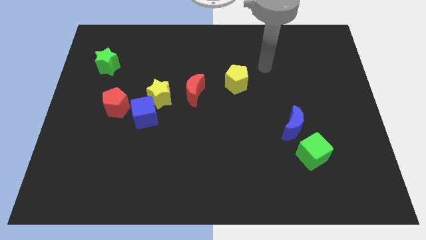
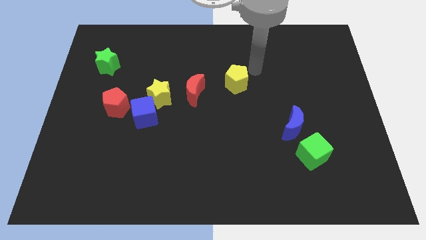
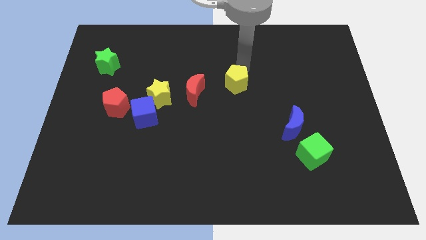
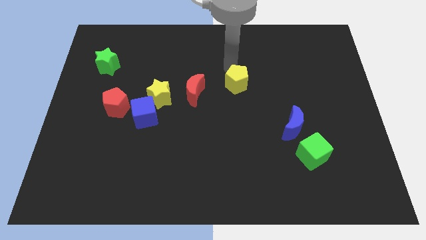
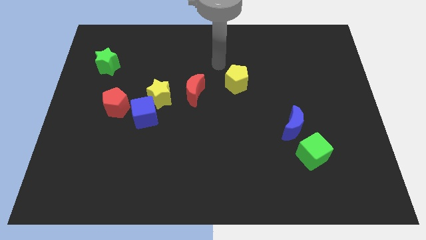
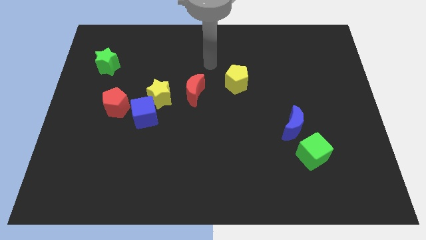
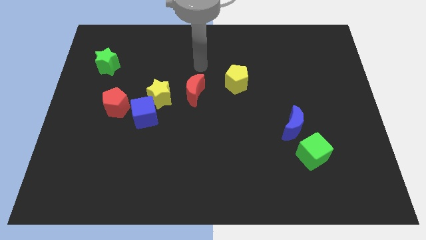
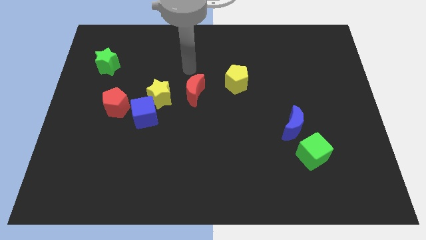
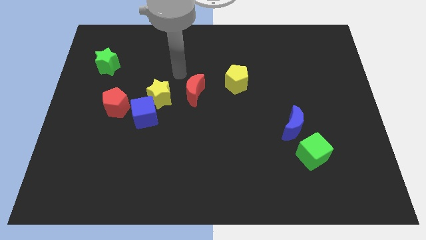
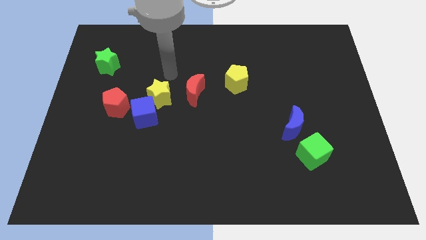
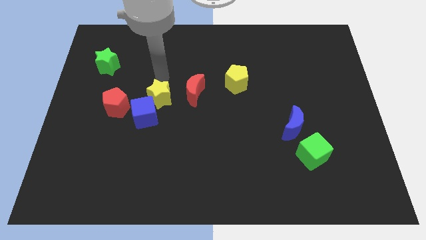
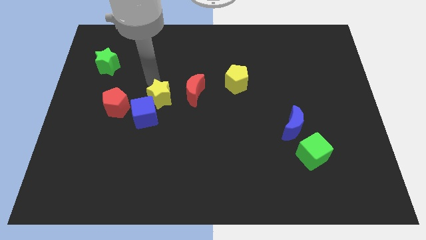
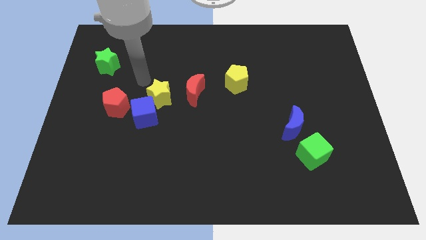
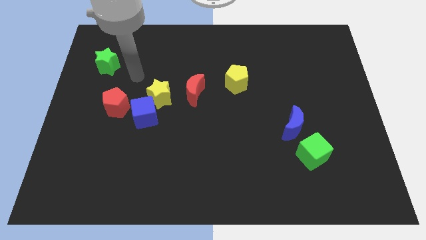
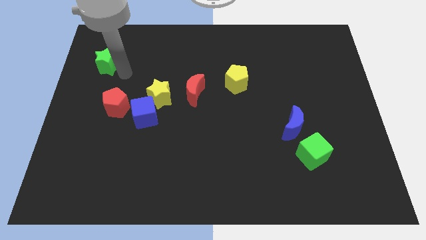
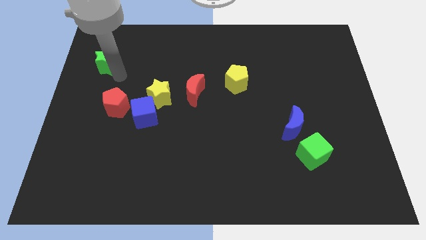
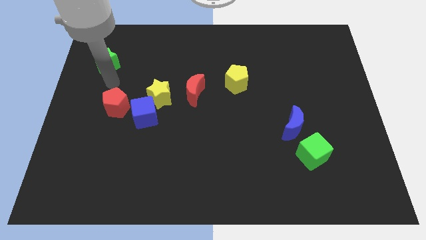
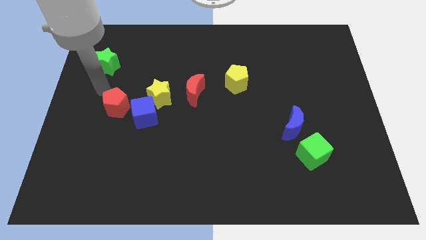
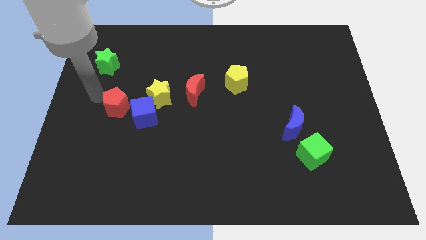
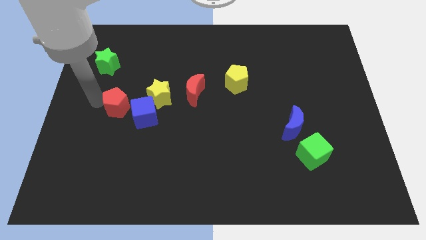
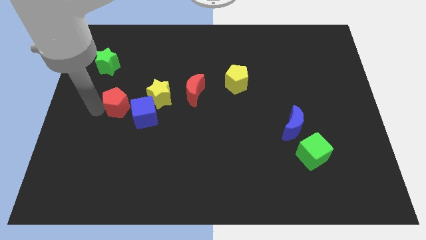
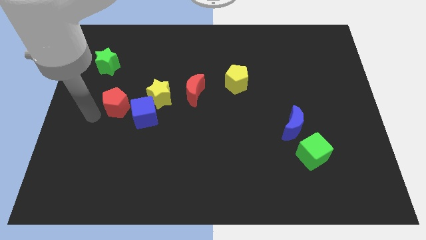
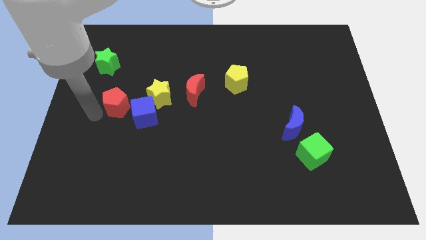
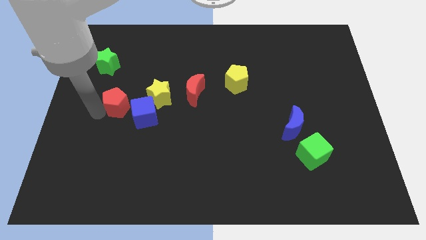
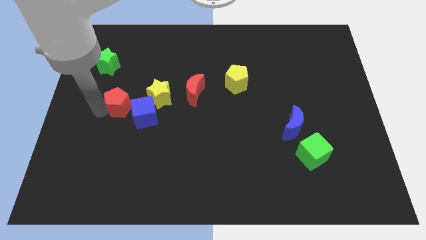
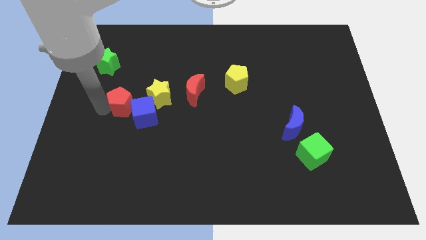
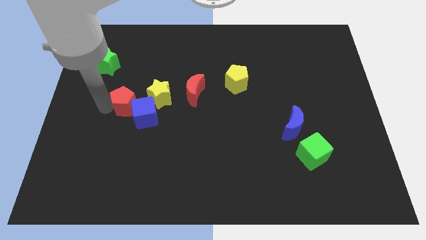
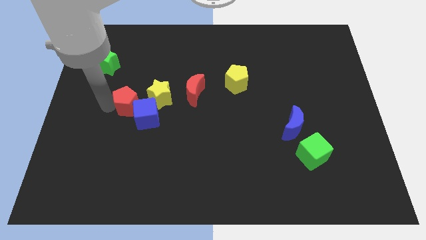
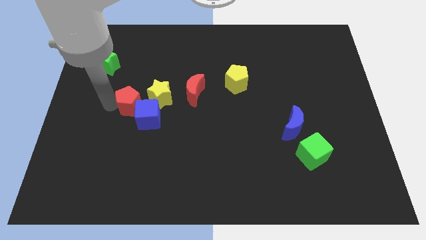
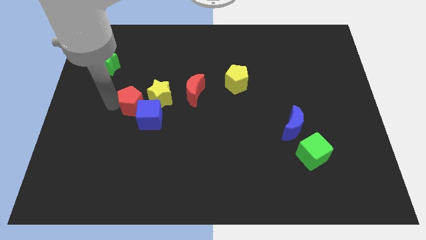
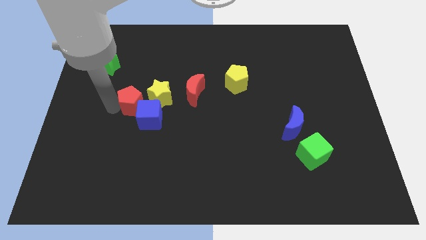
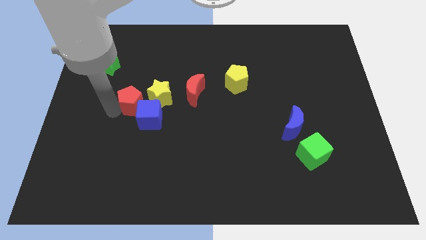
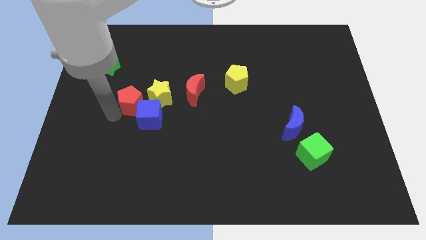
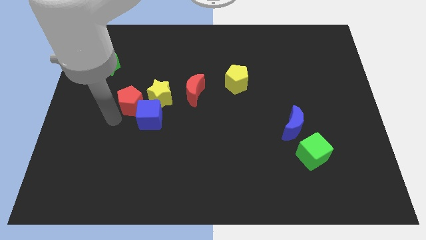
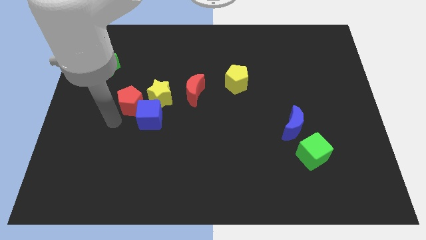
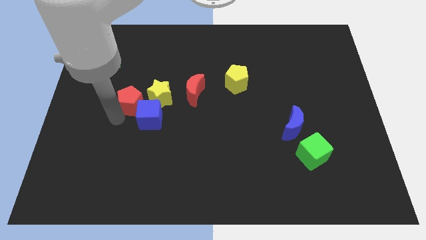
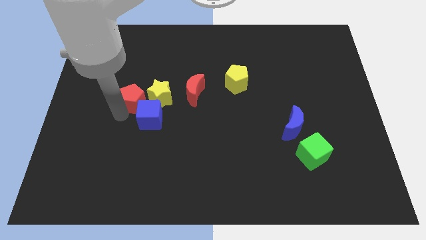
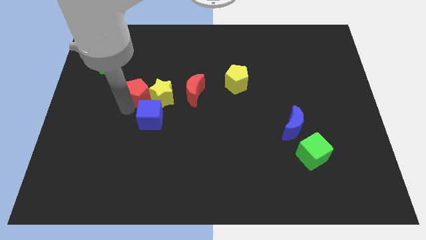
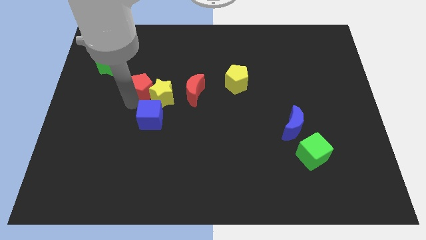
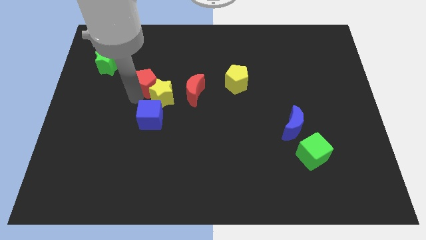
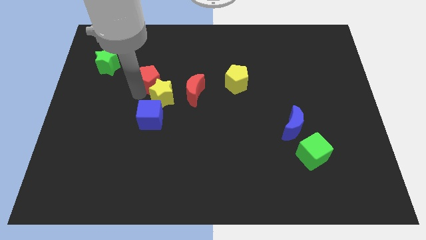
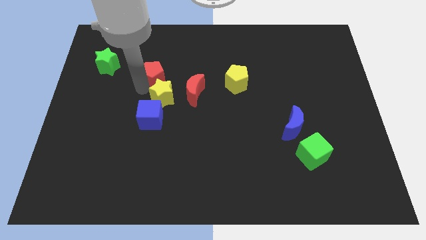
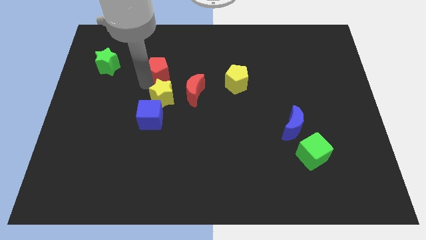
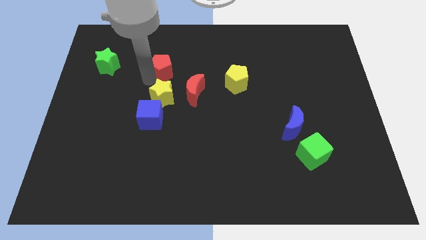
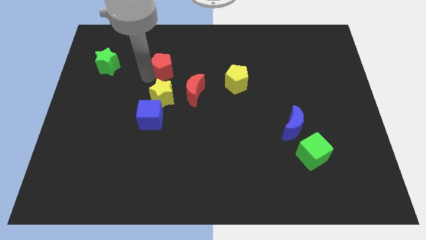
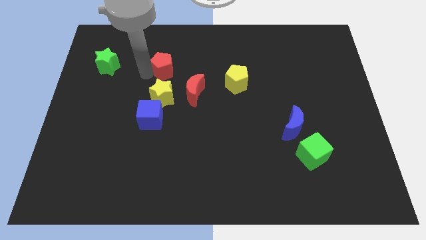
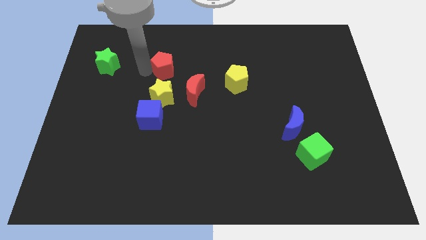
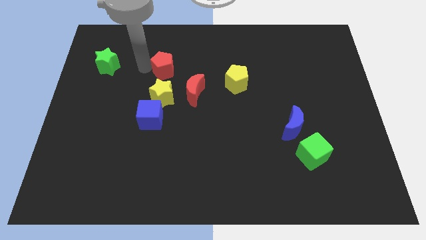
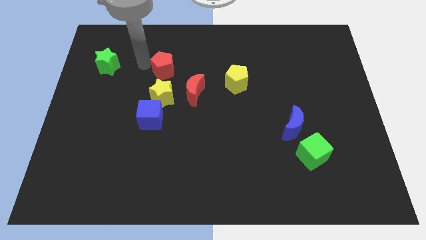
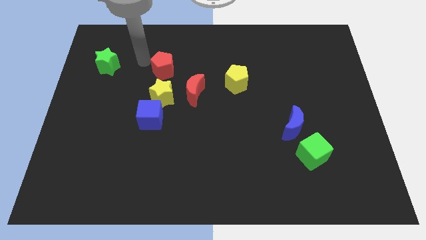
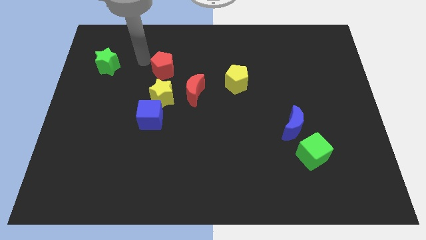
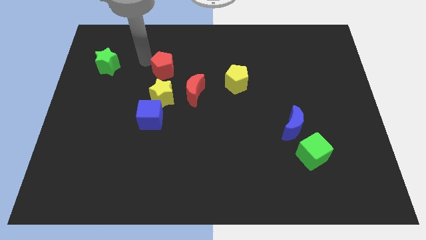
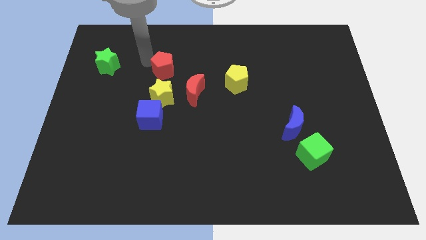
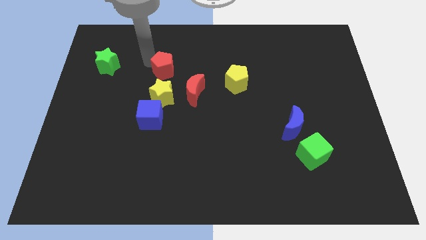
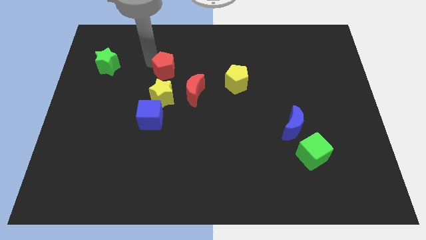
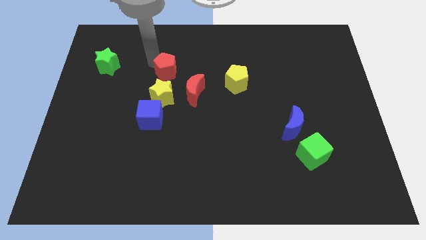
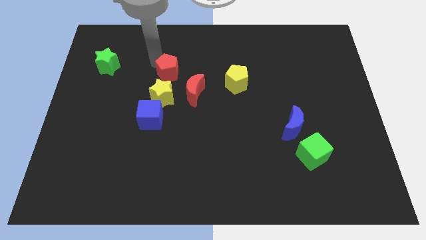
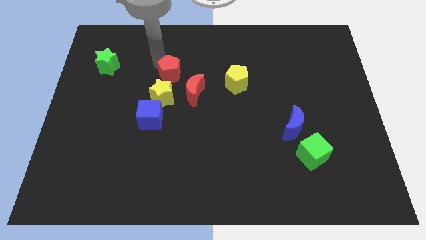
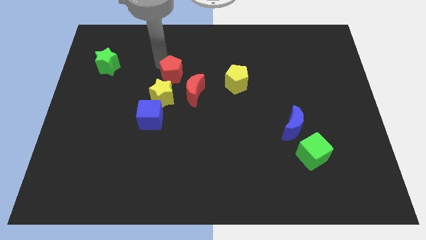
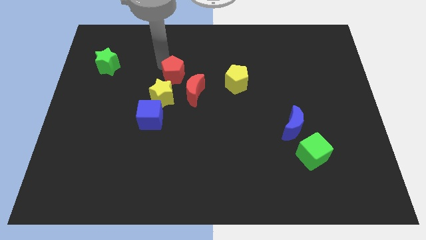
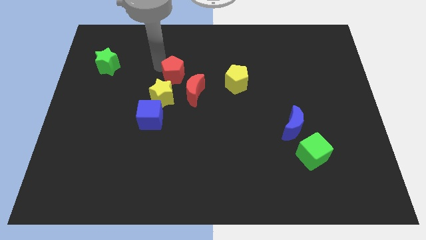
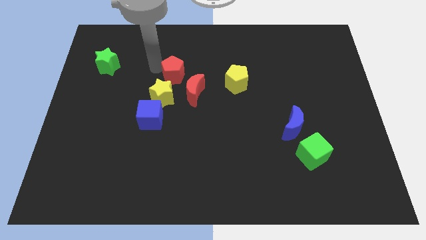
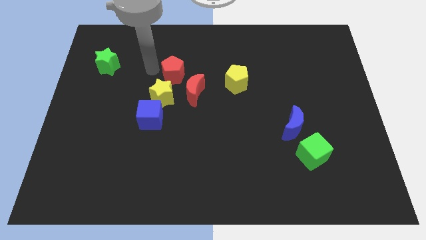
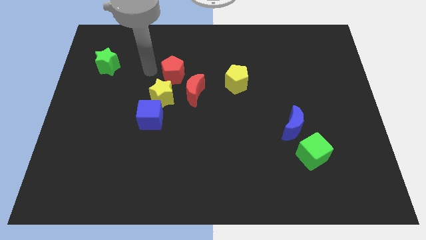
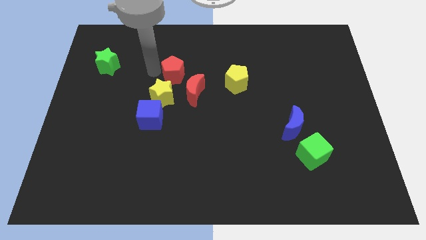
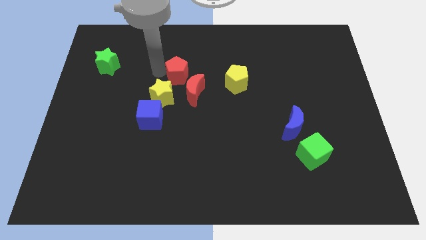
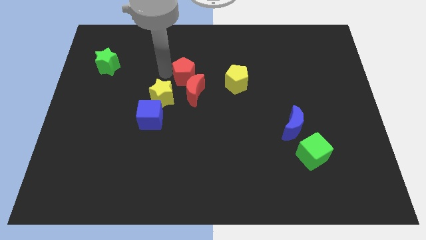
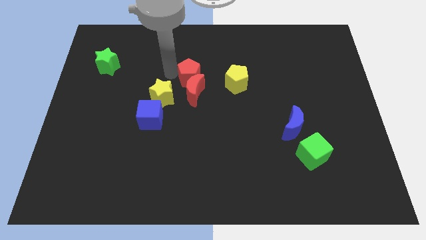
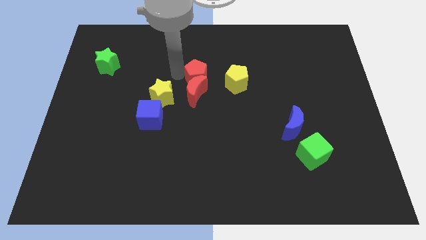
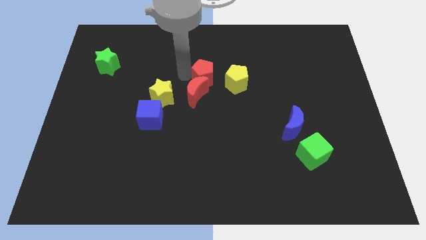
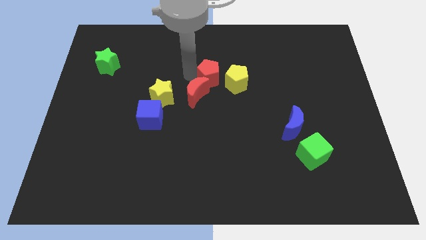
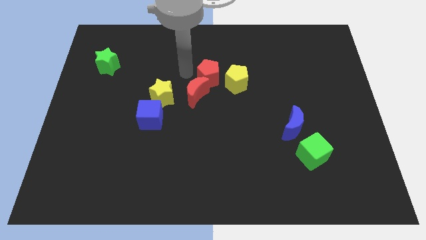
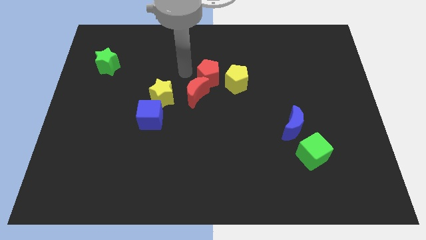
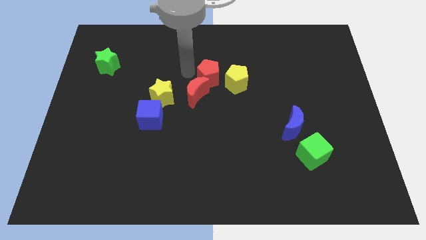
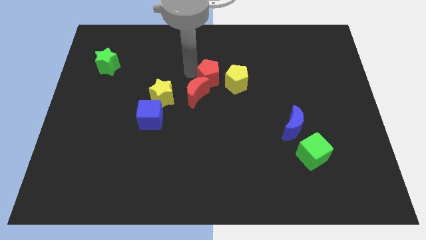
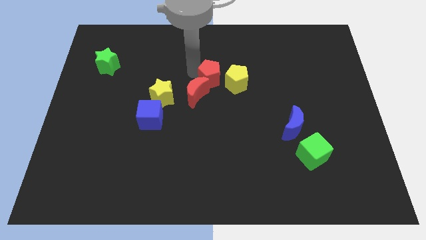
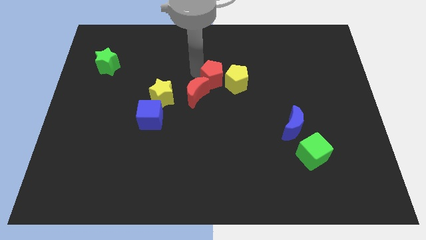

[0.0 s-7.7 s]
move the red pentagon close to the yellow pentagon
